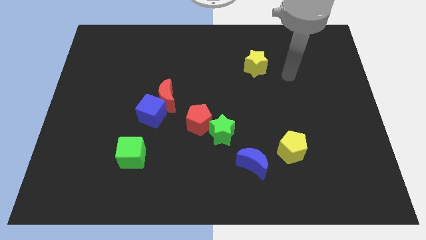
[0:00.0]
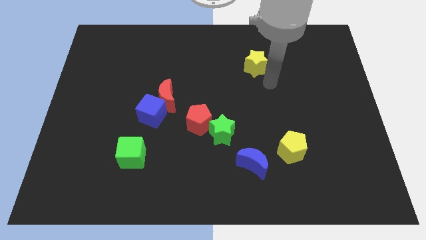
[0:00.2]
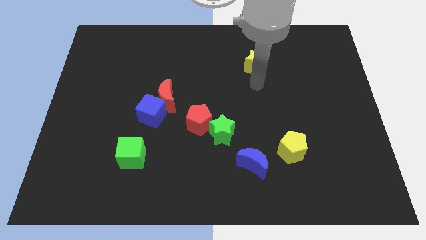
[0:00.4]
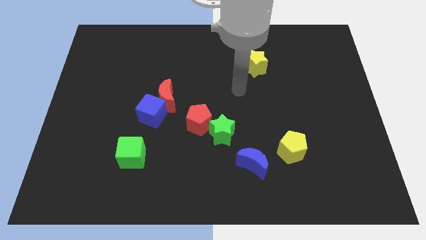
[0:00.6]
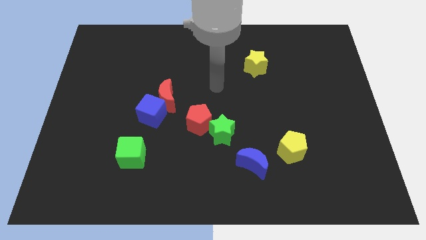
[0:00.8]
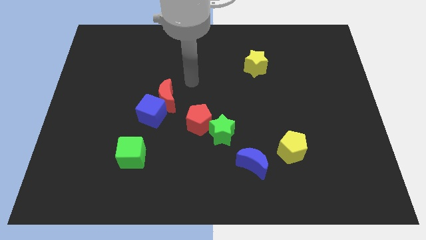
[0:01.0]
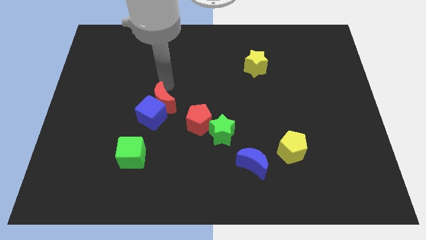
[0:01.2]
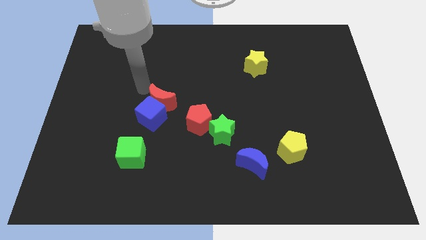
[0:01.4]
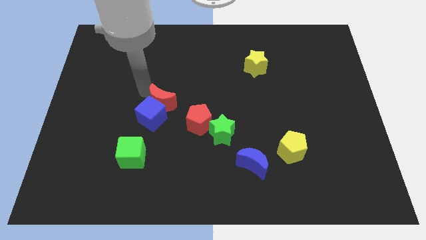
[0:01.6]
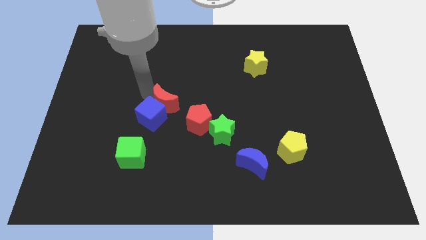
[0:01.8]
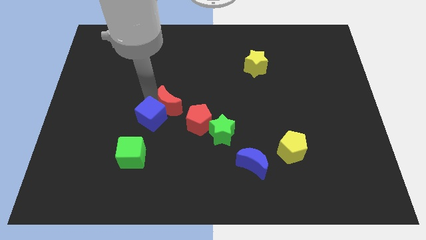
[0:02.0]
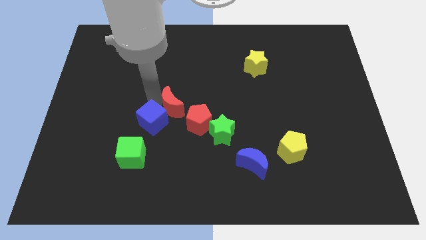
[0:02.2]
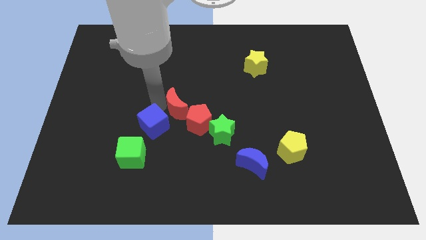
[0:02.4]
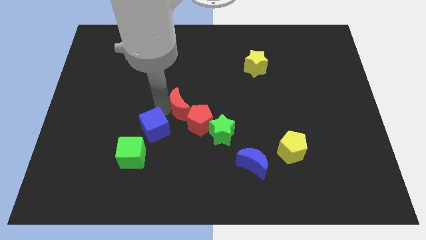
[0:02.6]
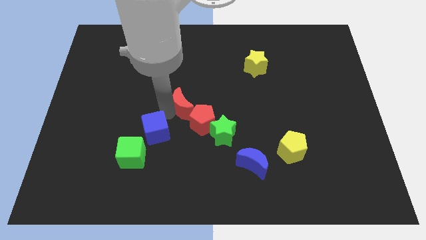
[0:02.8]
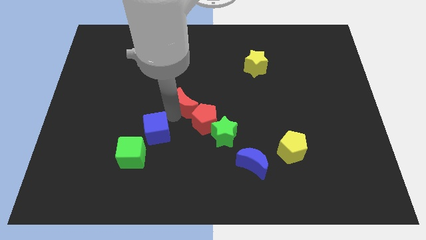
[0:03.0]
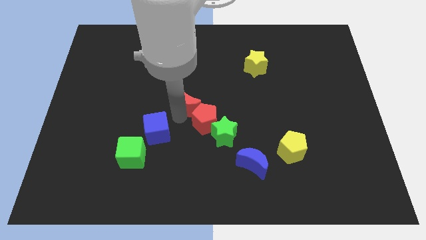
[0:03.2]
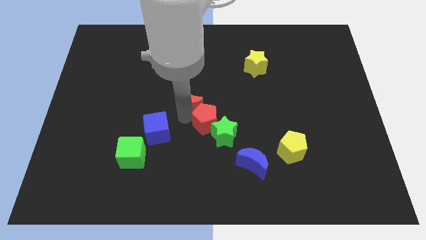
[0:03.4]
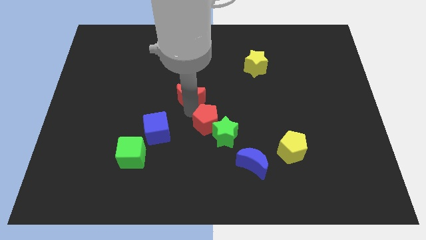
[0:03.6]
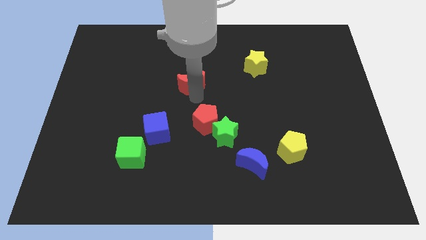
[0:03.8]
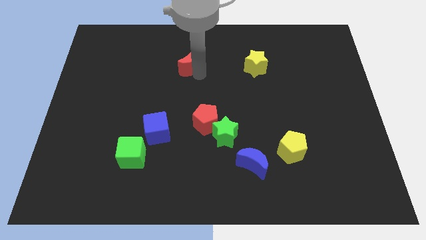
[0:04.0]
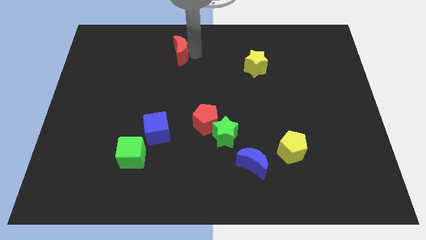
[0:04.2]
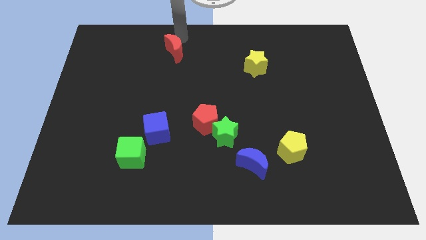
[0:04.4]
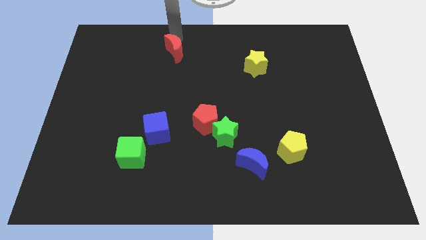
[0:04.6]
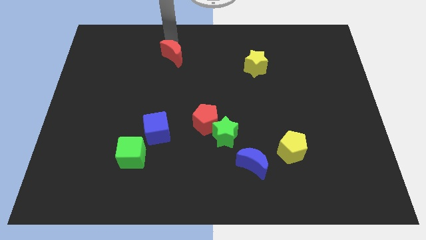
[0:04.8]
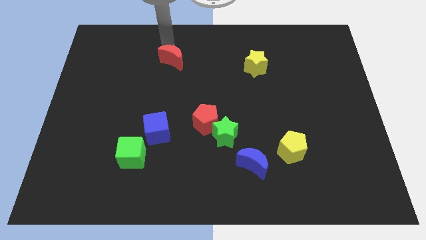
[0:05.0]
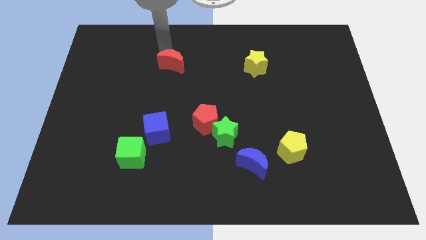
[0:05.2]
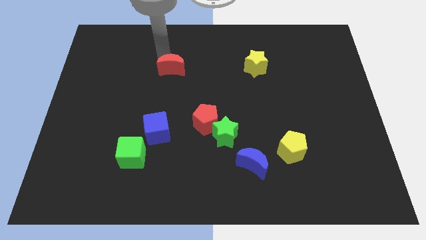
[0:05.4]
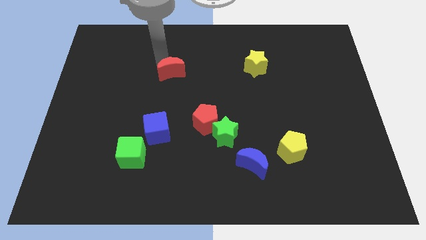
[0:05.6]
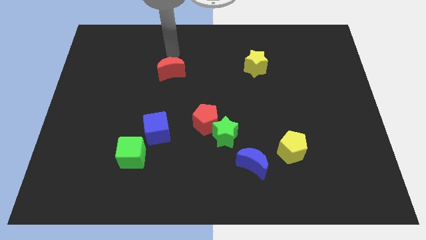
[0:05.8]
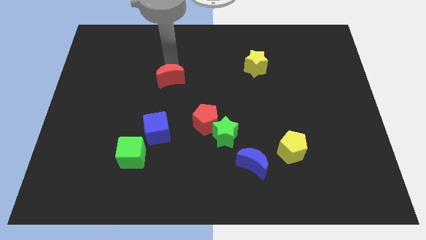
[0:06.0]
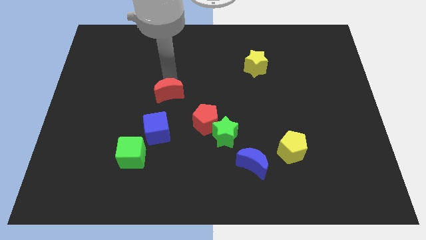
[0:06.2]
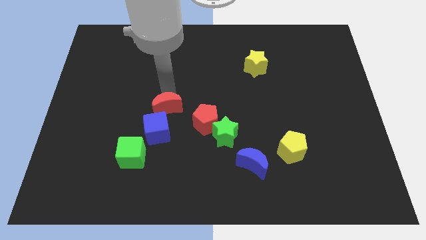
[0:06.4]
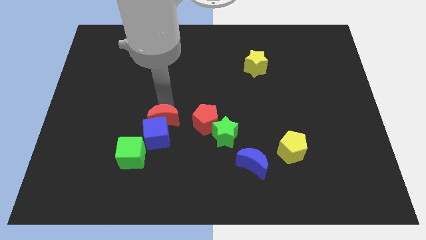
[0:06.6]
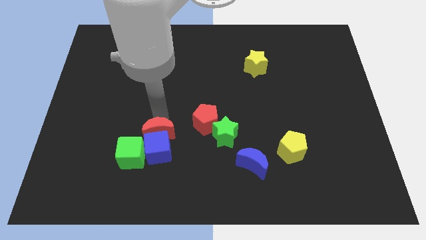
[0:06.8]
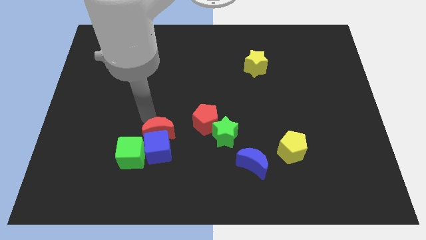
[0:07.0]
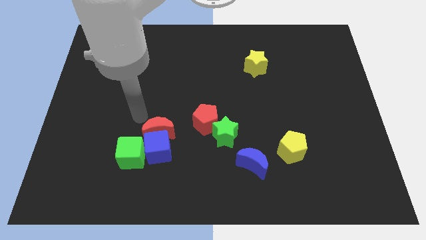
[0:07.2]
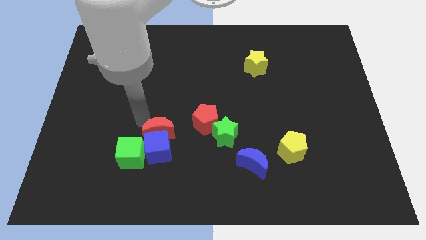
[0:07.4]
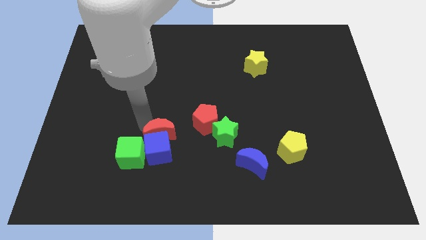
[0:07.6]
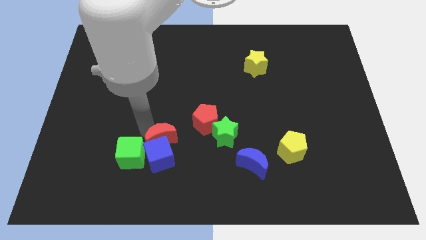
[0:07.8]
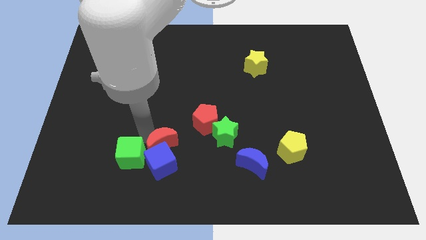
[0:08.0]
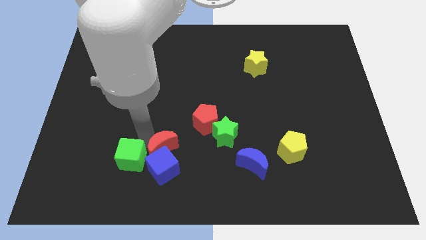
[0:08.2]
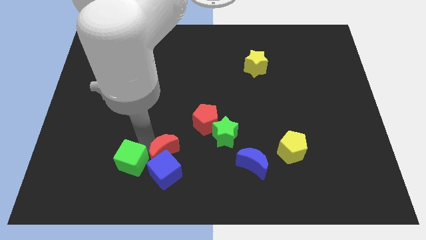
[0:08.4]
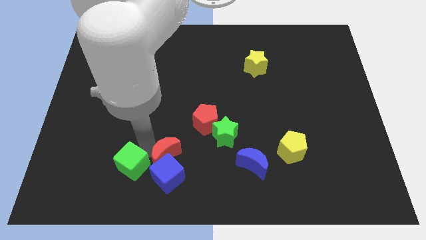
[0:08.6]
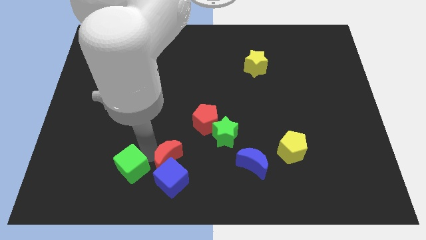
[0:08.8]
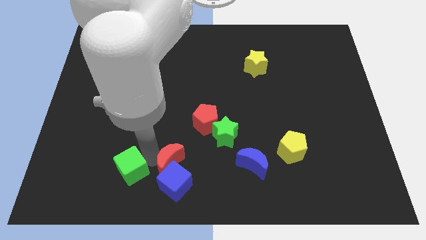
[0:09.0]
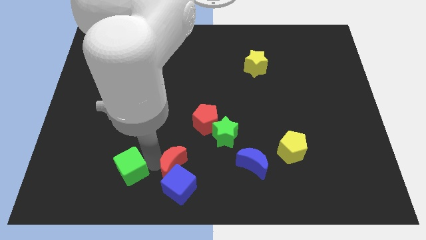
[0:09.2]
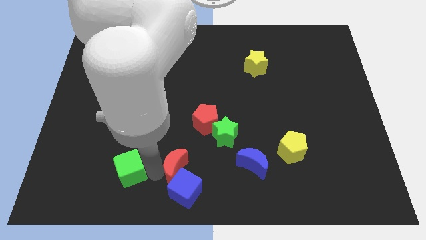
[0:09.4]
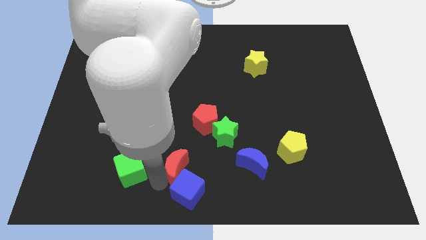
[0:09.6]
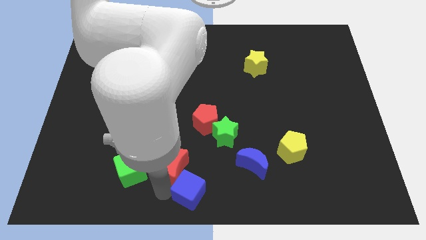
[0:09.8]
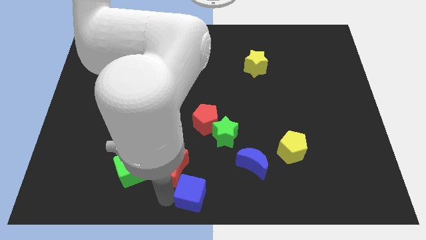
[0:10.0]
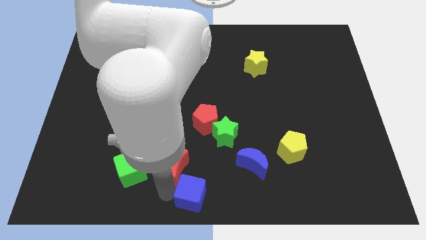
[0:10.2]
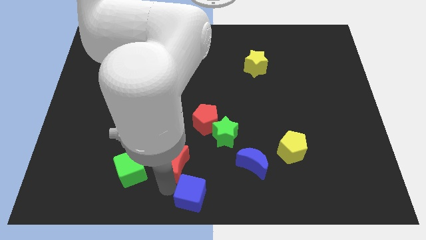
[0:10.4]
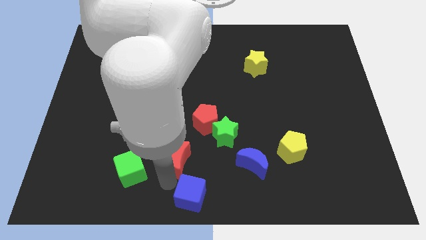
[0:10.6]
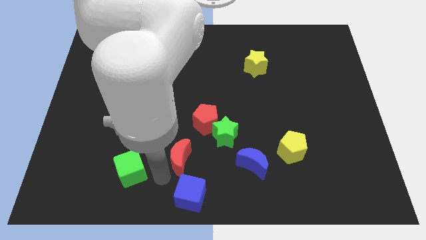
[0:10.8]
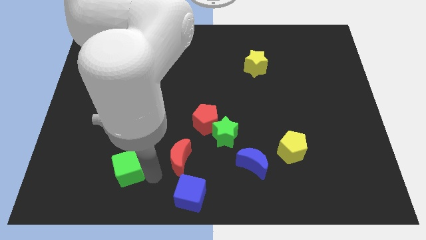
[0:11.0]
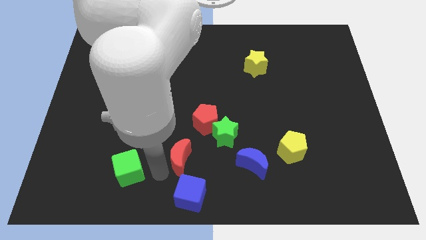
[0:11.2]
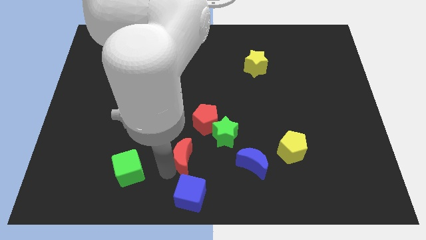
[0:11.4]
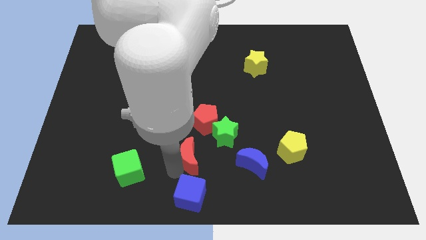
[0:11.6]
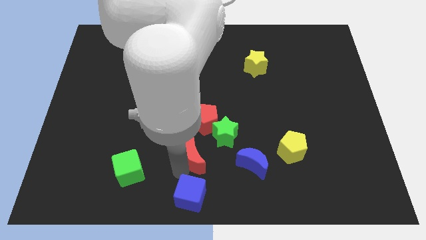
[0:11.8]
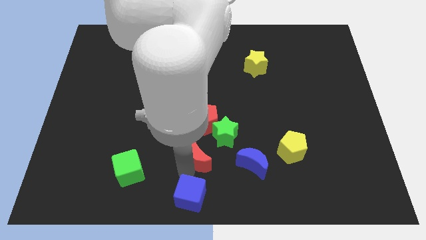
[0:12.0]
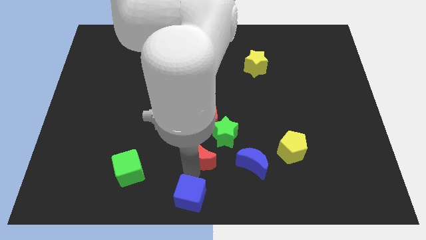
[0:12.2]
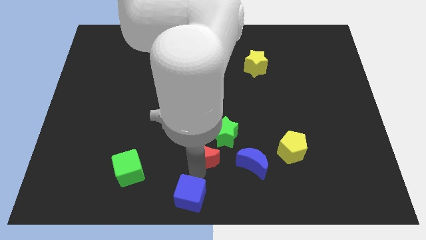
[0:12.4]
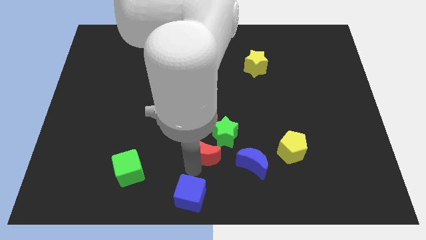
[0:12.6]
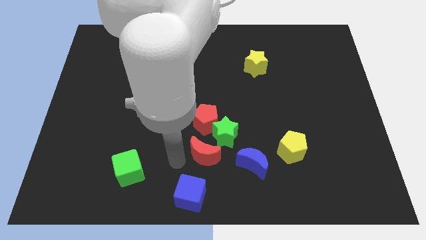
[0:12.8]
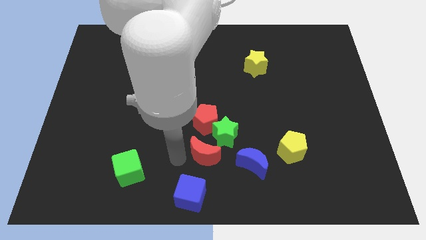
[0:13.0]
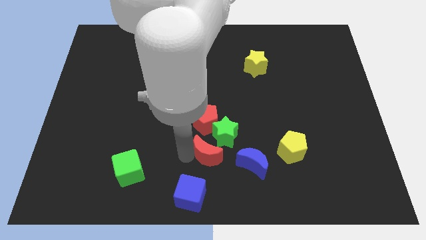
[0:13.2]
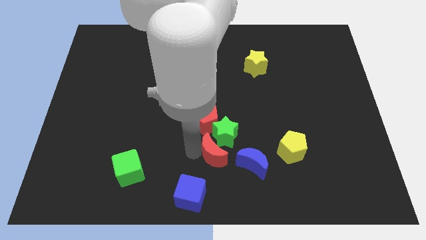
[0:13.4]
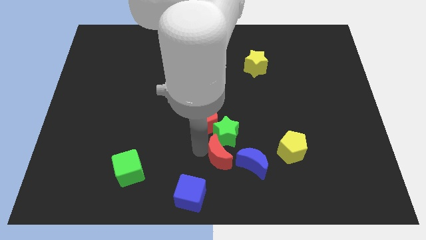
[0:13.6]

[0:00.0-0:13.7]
put the red moon to the left of the yellow pentagon

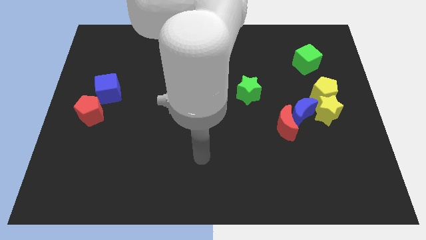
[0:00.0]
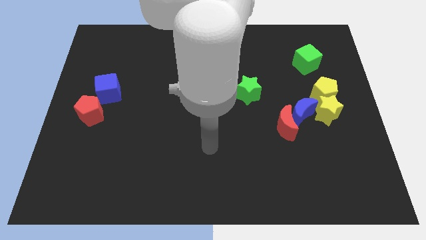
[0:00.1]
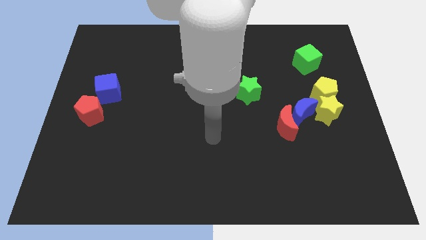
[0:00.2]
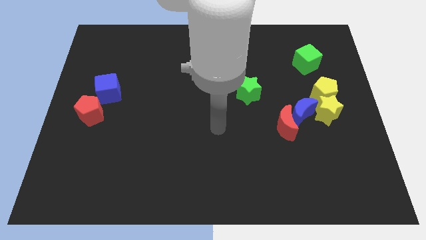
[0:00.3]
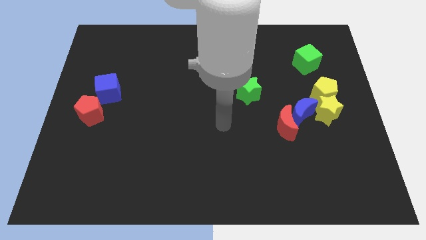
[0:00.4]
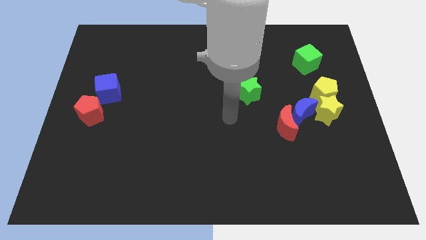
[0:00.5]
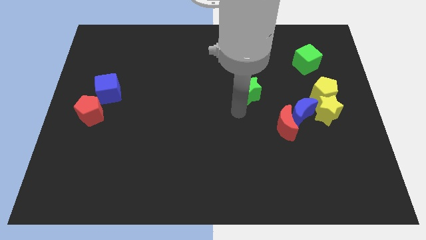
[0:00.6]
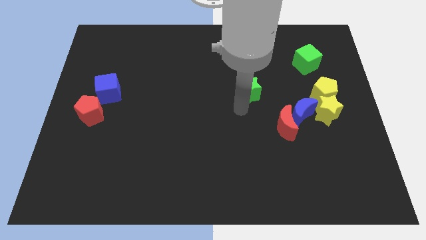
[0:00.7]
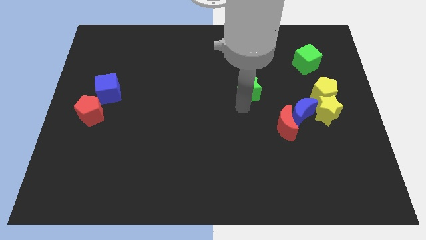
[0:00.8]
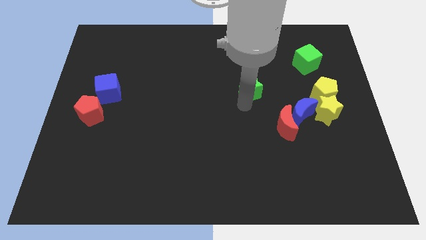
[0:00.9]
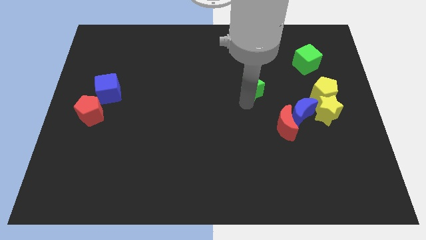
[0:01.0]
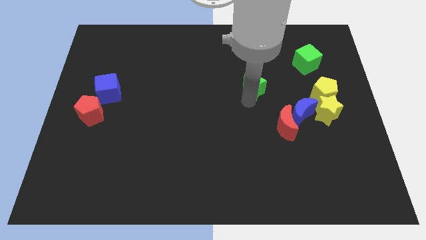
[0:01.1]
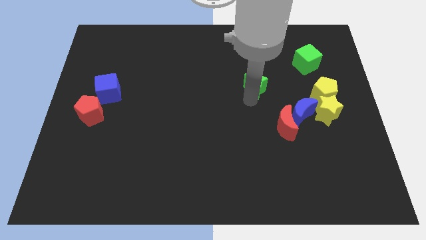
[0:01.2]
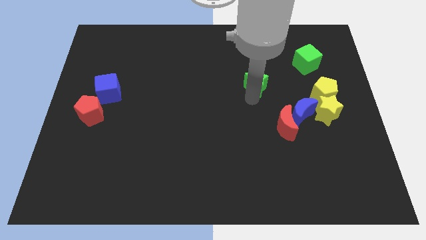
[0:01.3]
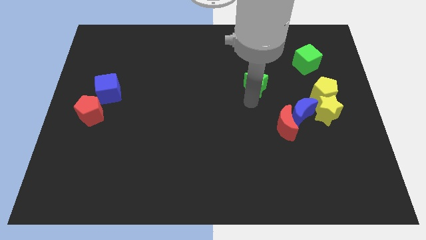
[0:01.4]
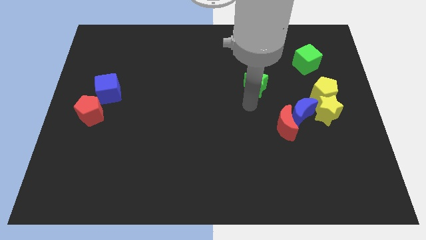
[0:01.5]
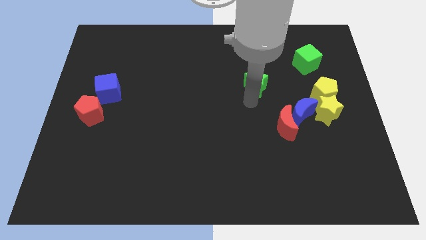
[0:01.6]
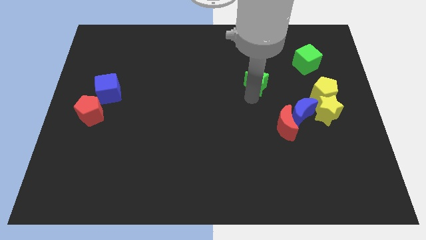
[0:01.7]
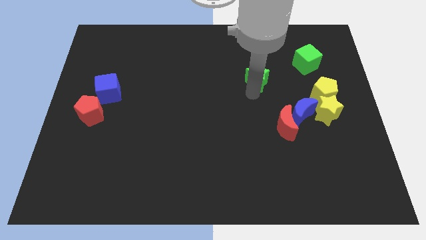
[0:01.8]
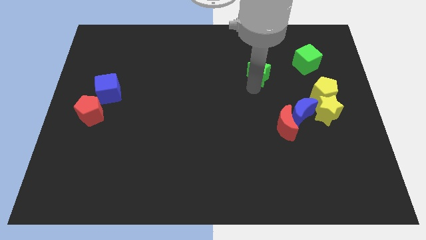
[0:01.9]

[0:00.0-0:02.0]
move the green star just left of the green cube
